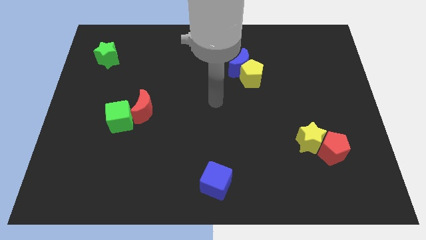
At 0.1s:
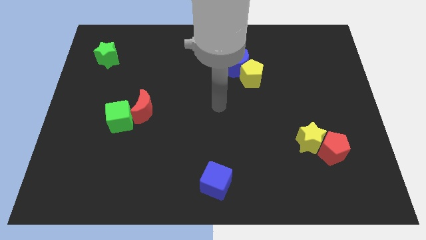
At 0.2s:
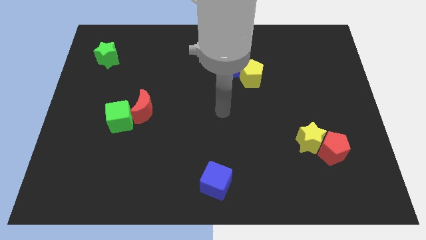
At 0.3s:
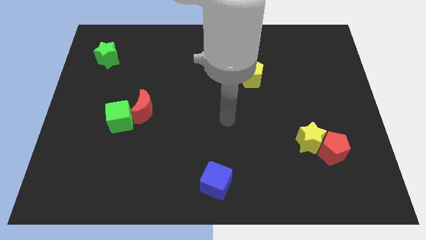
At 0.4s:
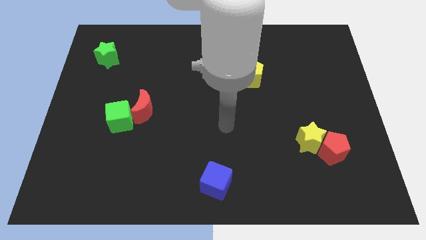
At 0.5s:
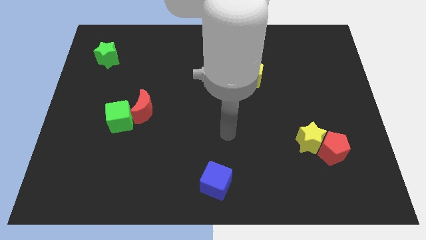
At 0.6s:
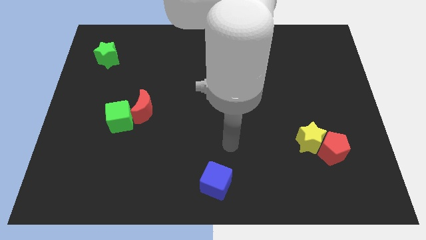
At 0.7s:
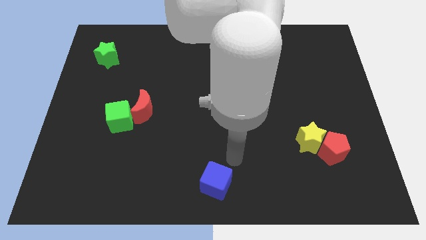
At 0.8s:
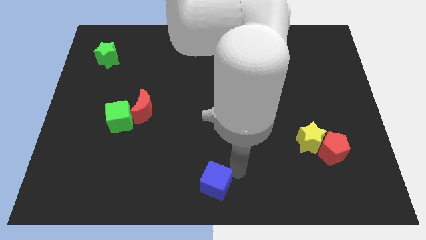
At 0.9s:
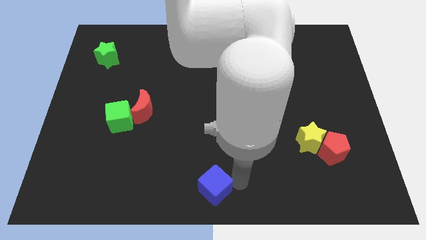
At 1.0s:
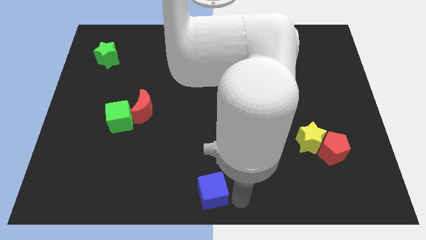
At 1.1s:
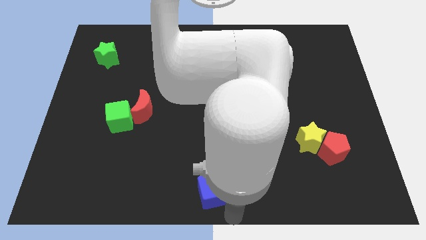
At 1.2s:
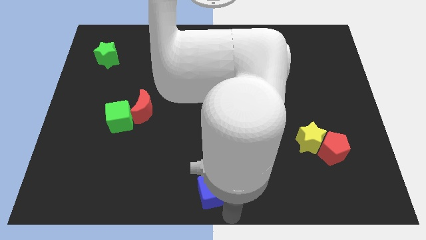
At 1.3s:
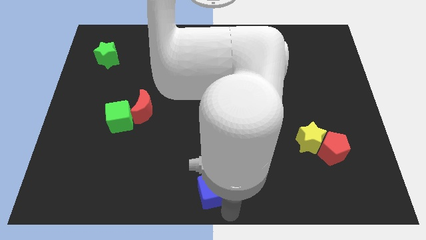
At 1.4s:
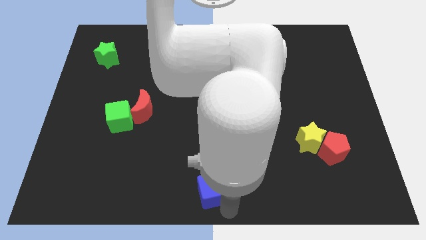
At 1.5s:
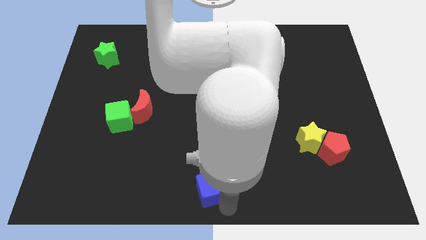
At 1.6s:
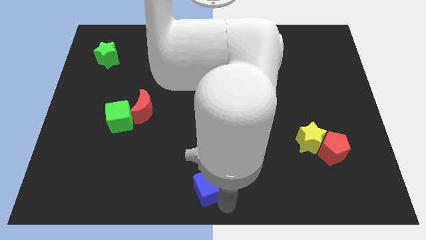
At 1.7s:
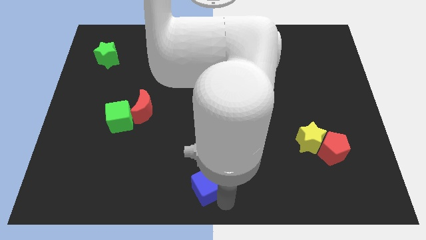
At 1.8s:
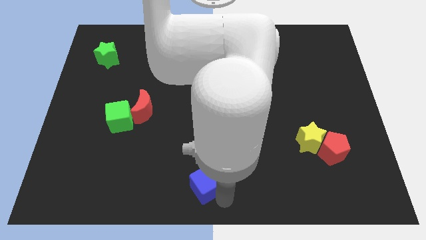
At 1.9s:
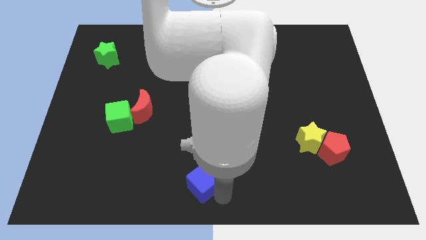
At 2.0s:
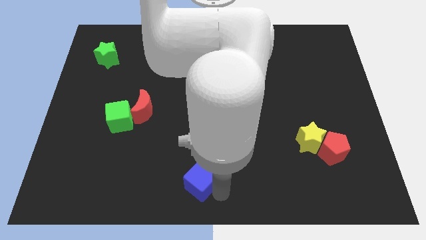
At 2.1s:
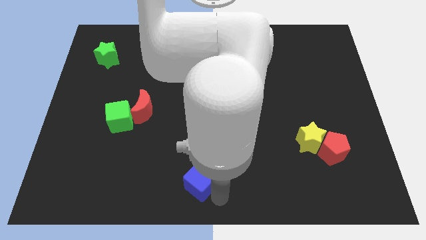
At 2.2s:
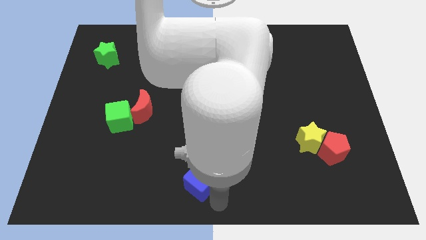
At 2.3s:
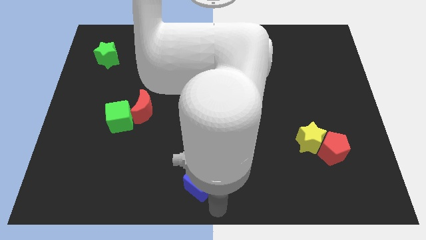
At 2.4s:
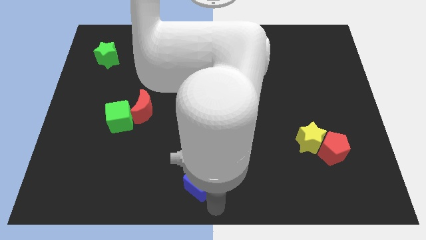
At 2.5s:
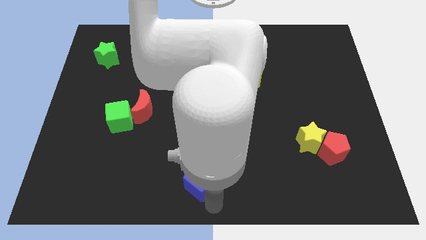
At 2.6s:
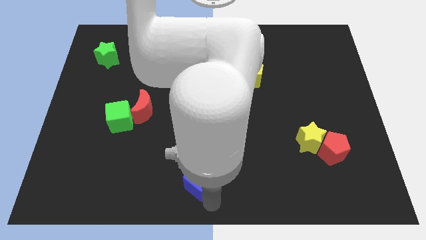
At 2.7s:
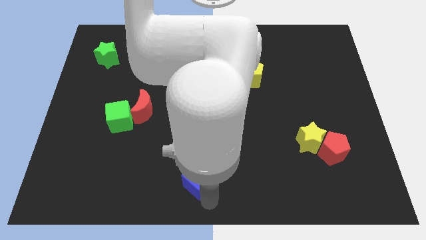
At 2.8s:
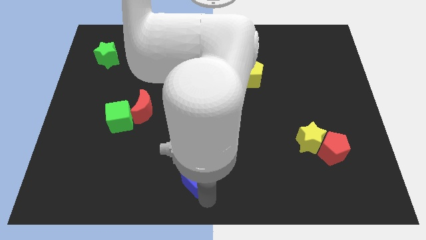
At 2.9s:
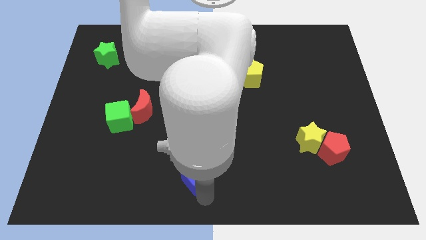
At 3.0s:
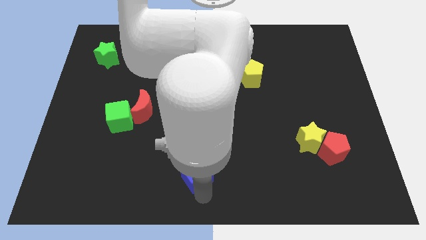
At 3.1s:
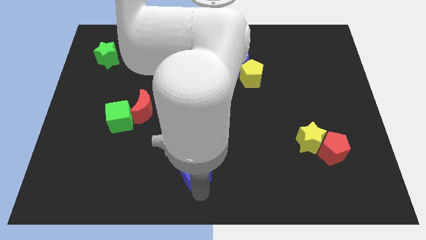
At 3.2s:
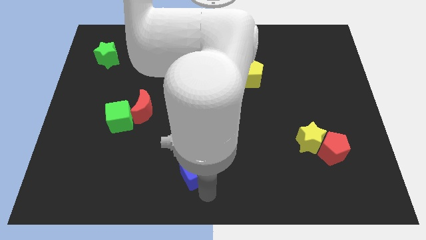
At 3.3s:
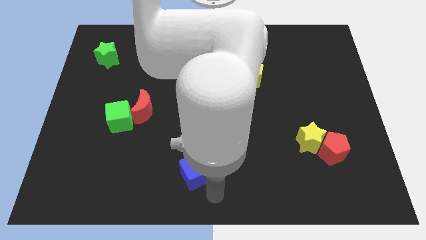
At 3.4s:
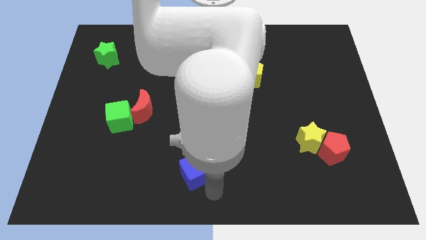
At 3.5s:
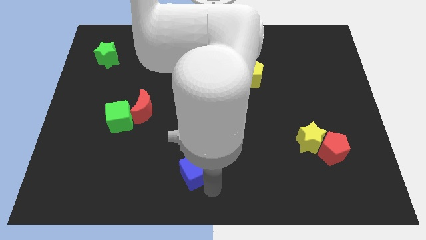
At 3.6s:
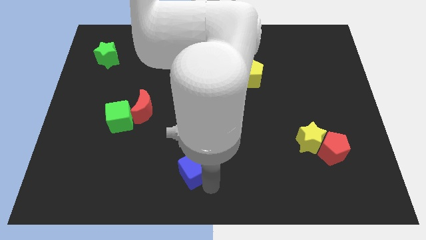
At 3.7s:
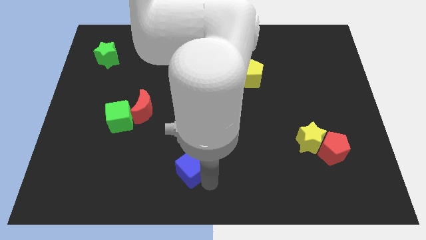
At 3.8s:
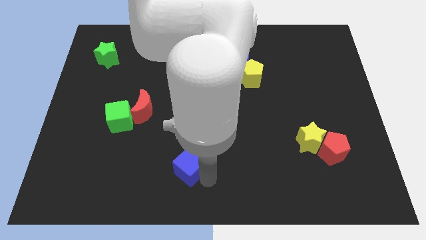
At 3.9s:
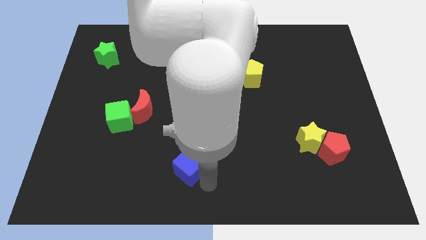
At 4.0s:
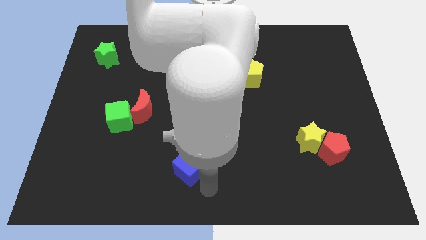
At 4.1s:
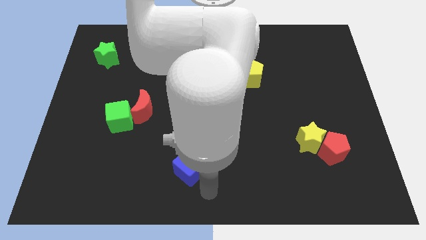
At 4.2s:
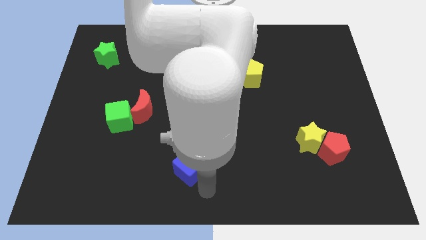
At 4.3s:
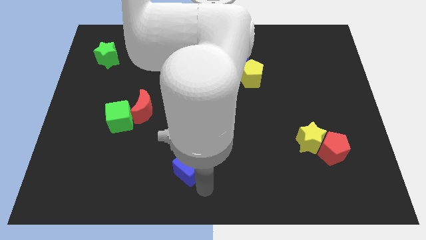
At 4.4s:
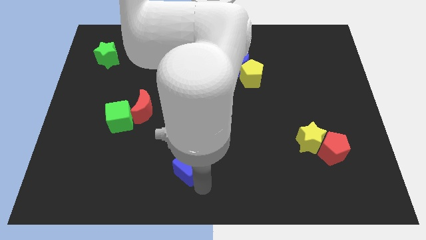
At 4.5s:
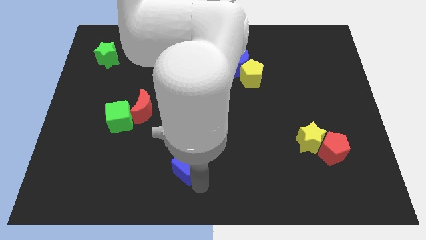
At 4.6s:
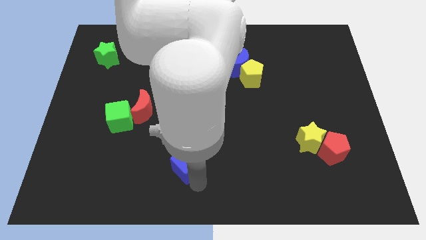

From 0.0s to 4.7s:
push the blue cube up and left a little bit

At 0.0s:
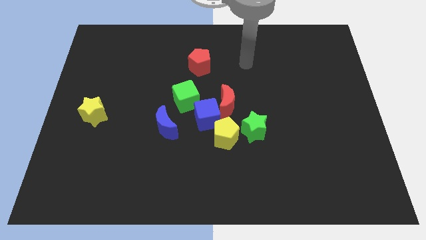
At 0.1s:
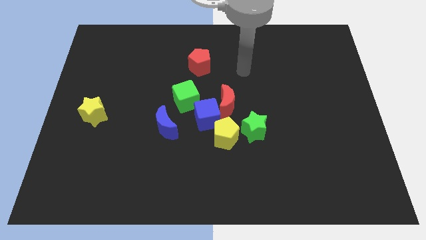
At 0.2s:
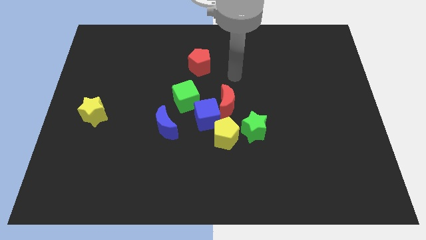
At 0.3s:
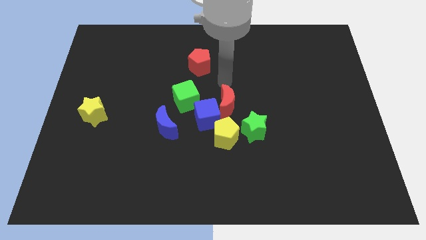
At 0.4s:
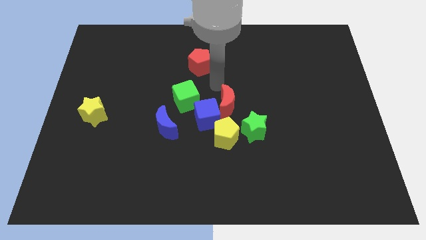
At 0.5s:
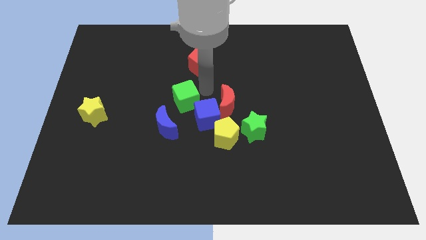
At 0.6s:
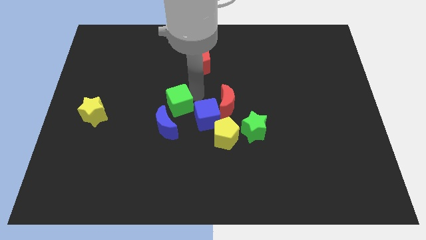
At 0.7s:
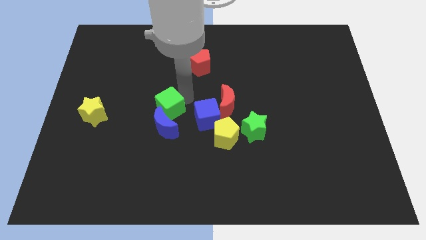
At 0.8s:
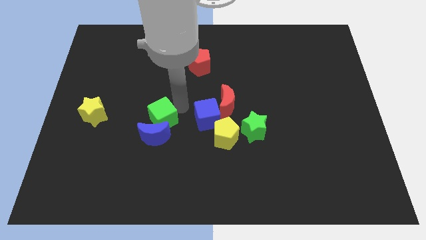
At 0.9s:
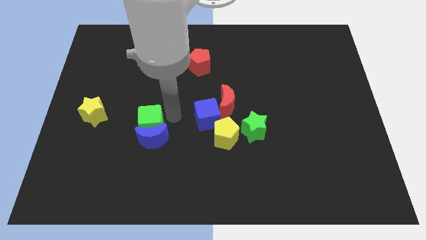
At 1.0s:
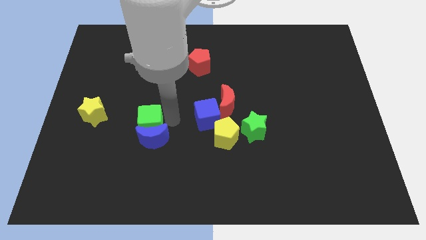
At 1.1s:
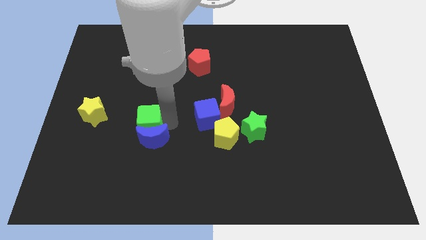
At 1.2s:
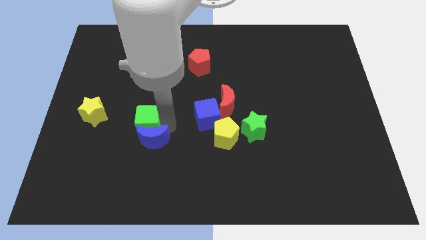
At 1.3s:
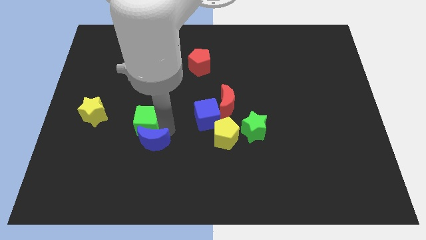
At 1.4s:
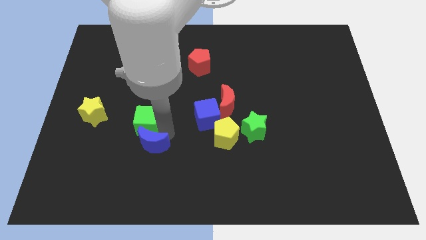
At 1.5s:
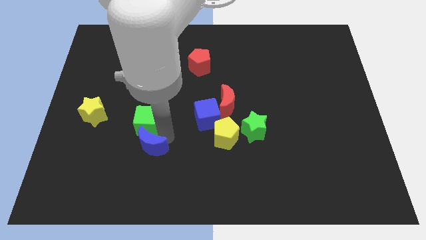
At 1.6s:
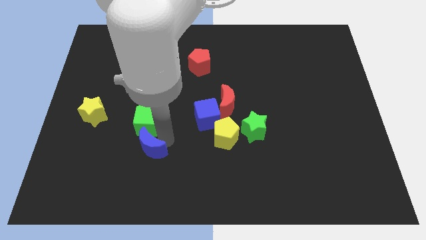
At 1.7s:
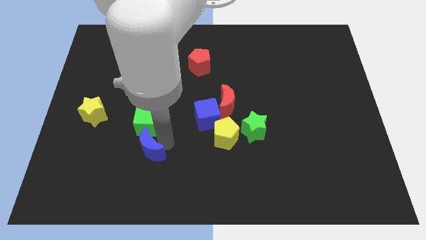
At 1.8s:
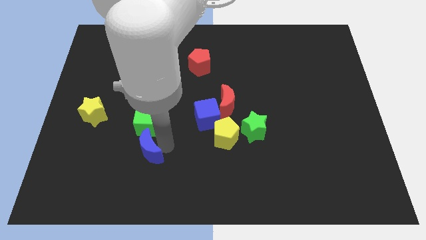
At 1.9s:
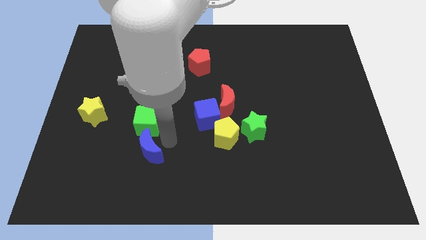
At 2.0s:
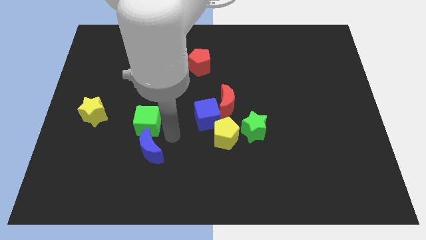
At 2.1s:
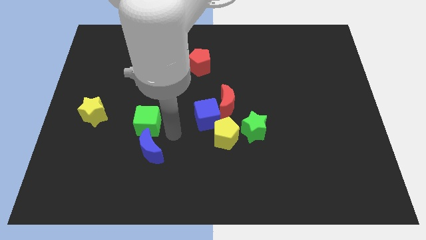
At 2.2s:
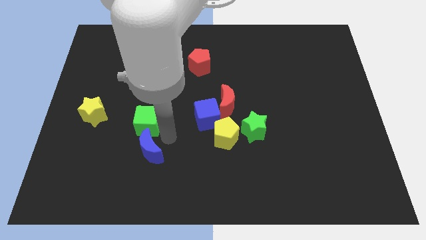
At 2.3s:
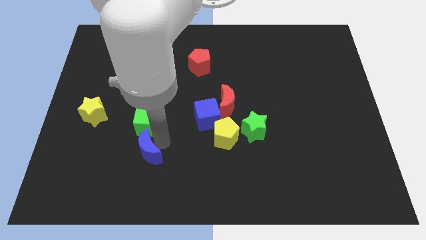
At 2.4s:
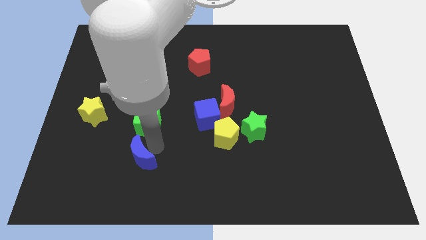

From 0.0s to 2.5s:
slightly push the blue moon downwards and to the left

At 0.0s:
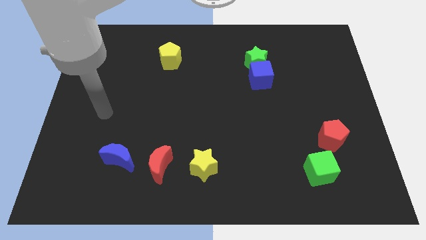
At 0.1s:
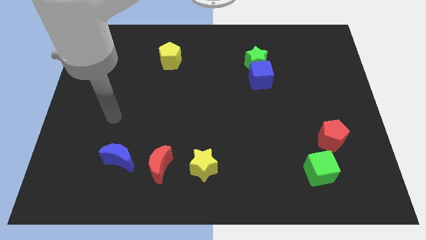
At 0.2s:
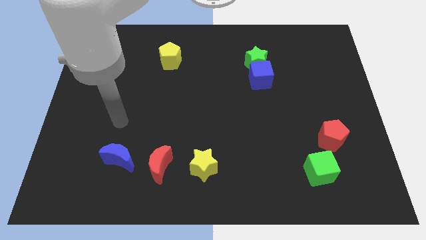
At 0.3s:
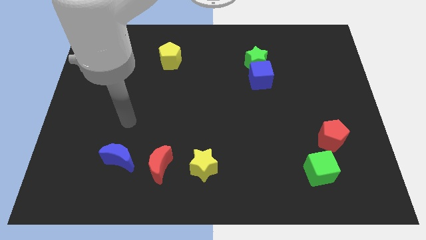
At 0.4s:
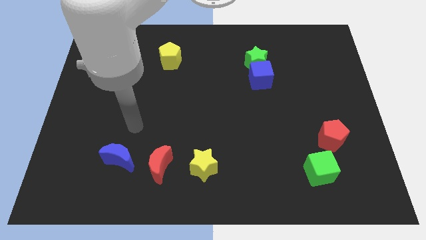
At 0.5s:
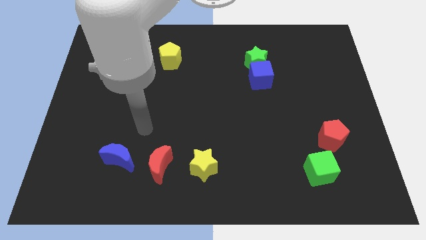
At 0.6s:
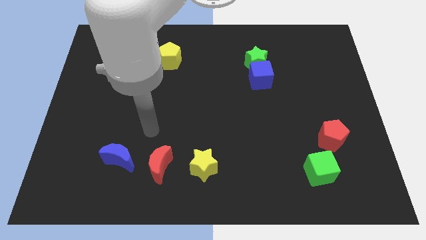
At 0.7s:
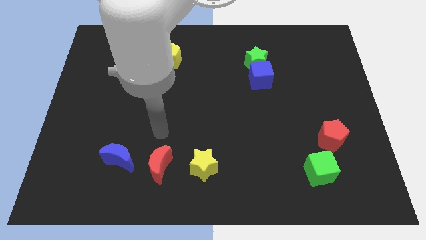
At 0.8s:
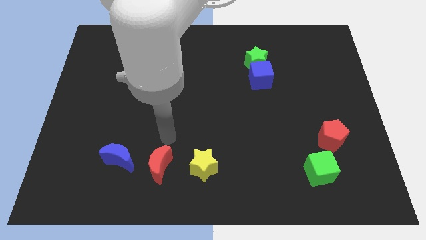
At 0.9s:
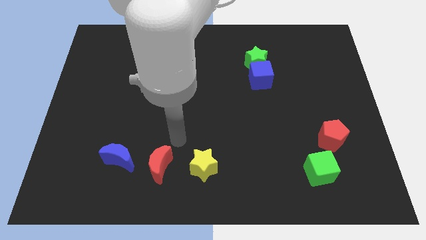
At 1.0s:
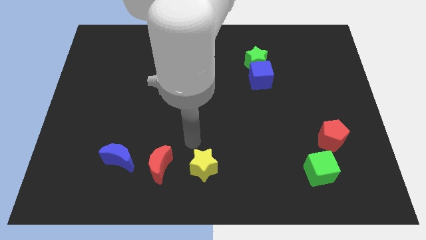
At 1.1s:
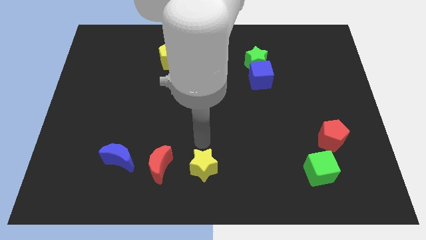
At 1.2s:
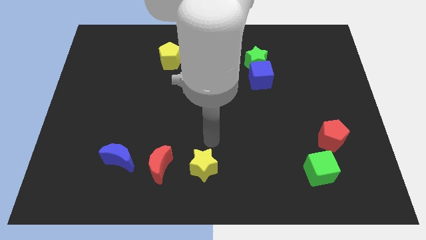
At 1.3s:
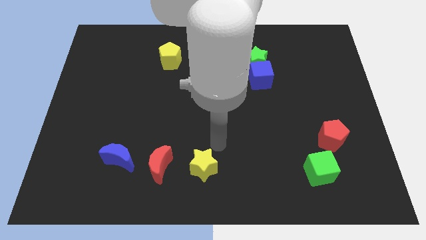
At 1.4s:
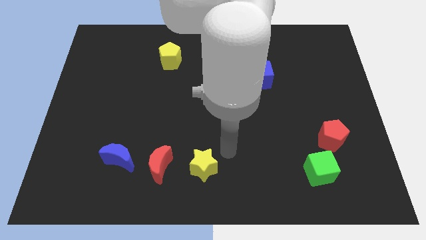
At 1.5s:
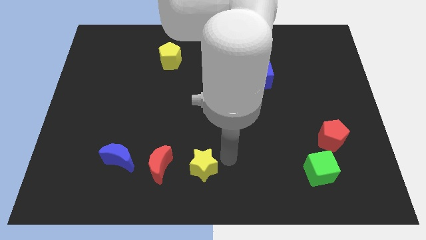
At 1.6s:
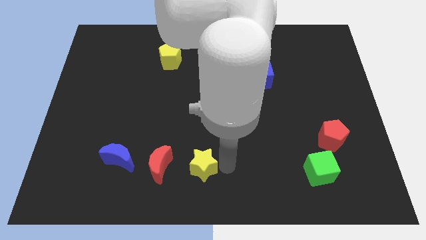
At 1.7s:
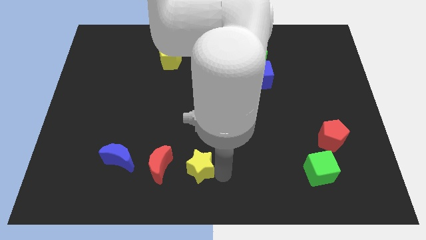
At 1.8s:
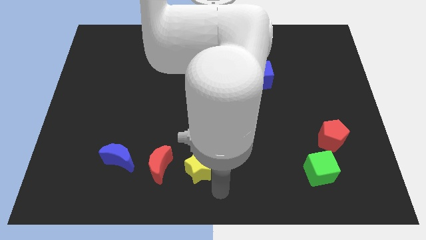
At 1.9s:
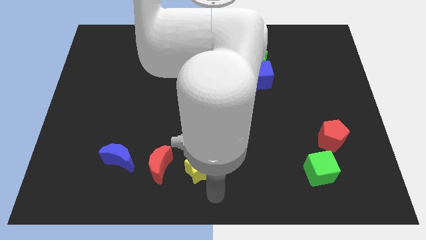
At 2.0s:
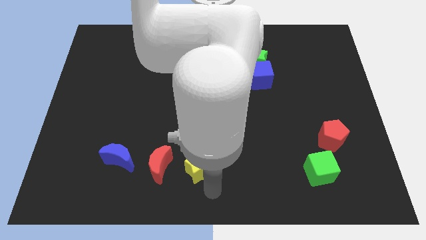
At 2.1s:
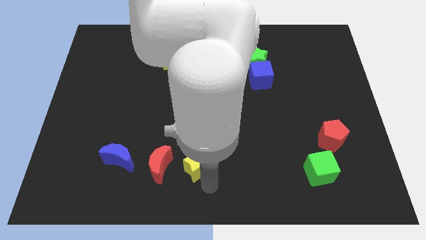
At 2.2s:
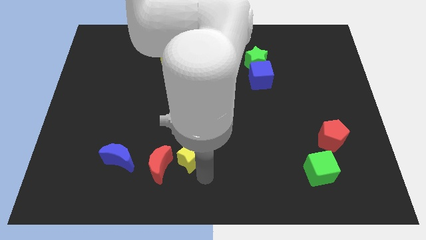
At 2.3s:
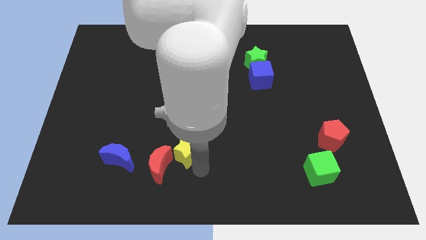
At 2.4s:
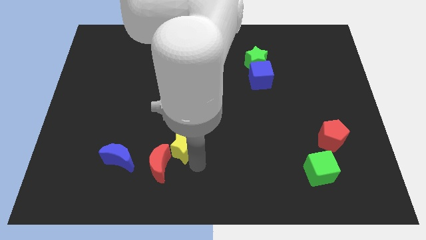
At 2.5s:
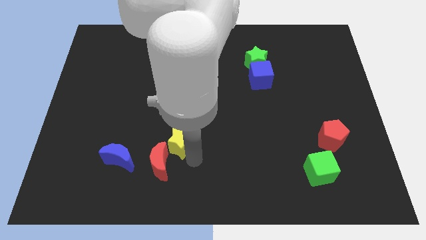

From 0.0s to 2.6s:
slightly push the yellow star up and then left
